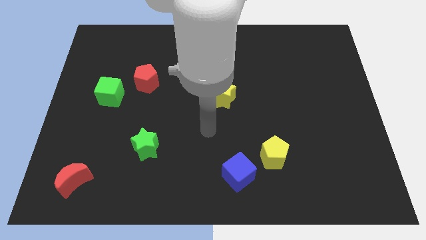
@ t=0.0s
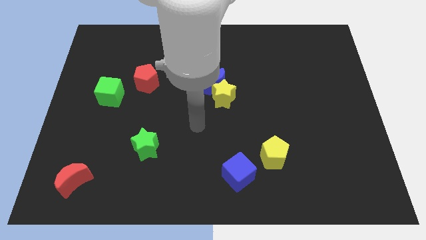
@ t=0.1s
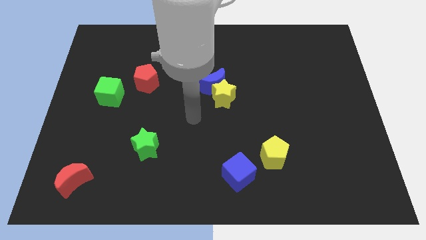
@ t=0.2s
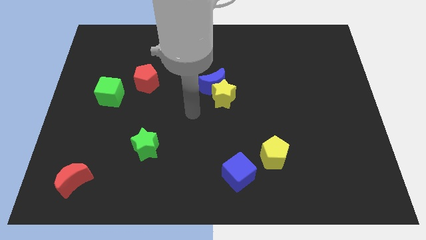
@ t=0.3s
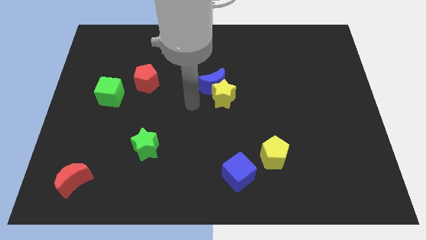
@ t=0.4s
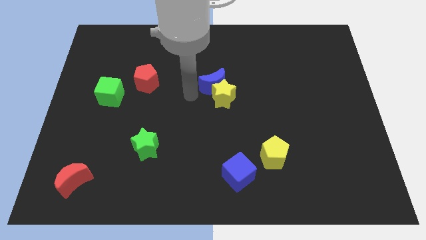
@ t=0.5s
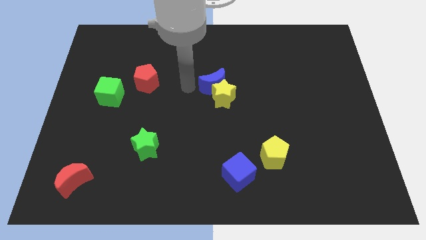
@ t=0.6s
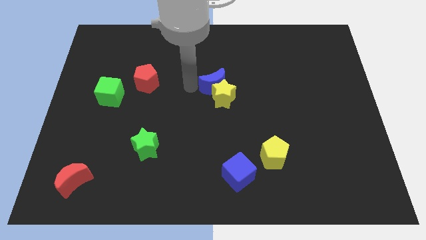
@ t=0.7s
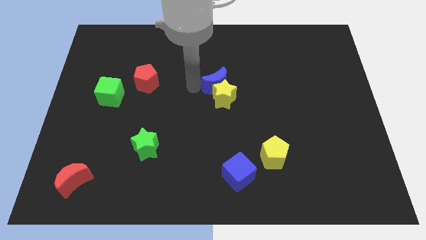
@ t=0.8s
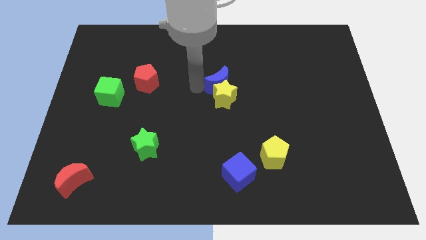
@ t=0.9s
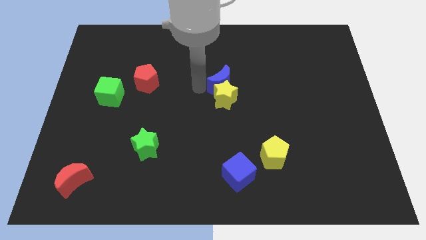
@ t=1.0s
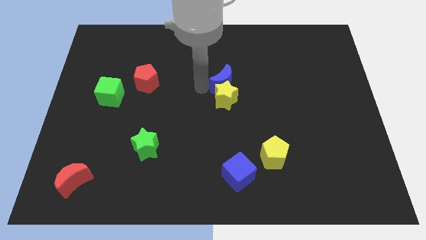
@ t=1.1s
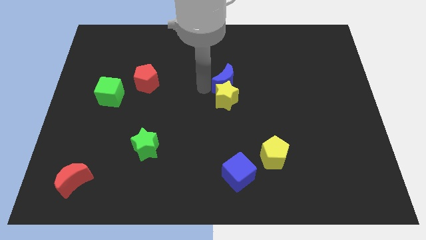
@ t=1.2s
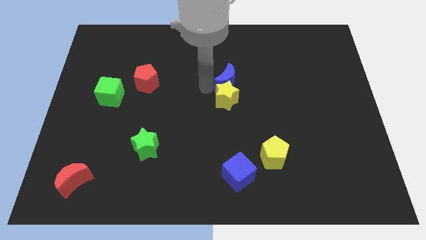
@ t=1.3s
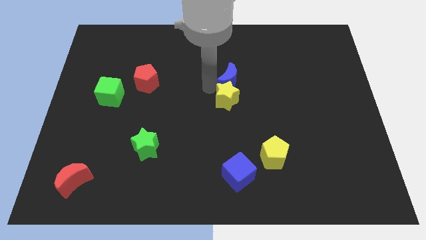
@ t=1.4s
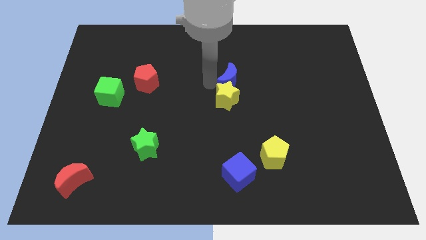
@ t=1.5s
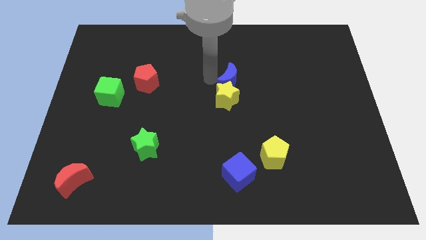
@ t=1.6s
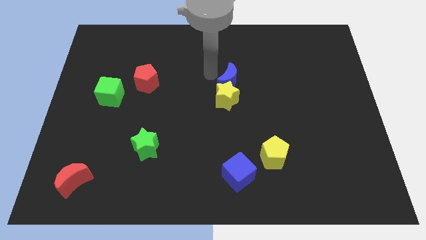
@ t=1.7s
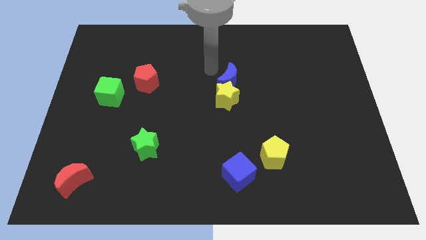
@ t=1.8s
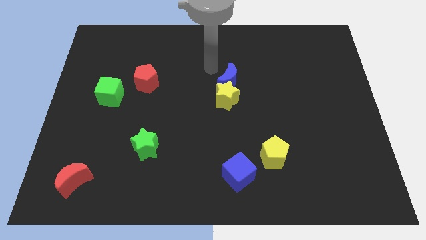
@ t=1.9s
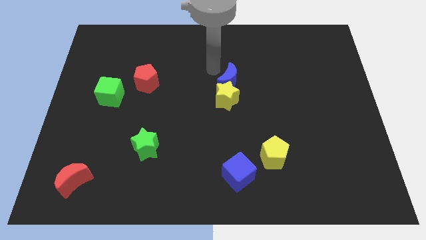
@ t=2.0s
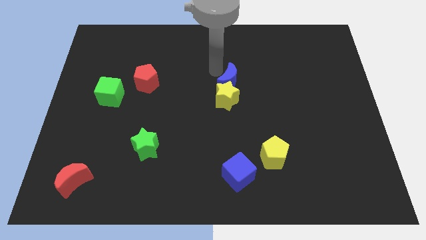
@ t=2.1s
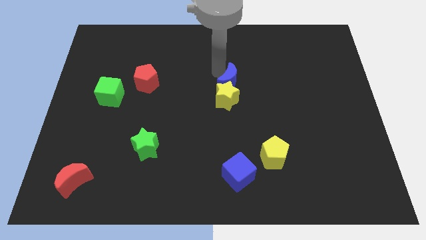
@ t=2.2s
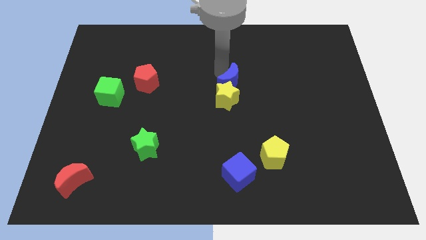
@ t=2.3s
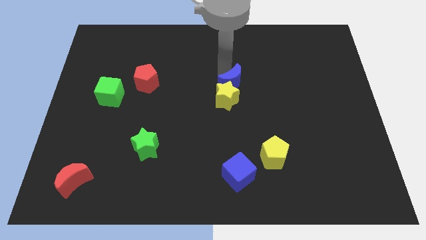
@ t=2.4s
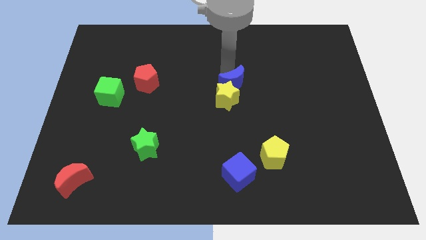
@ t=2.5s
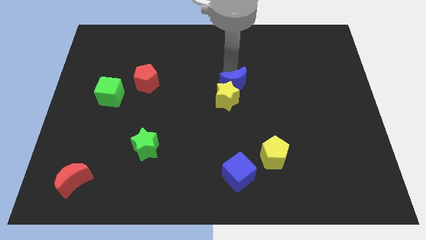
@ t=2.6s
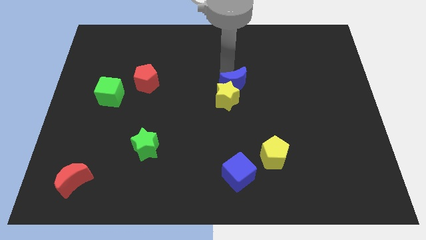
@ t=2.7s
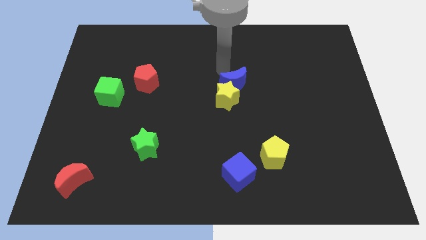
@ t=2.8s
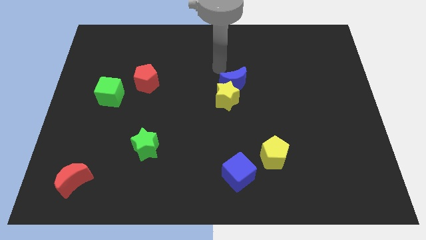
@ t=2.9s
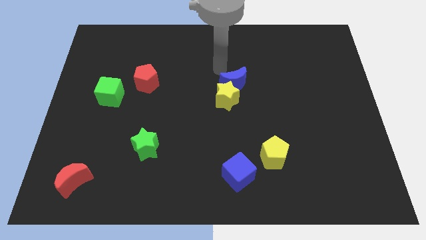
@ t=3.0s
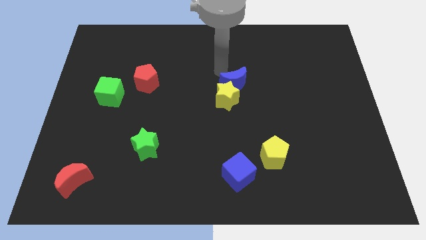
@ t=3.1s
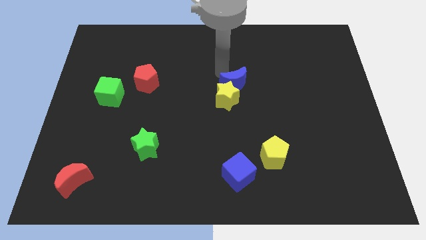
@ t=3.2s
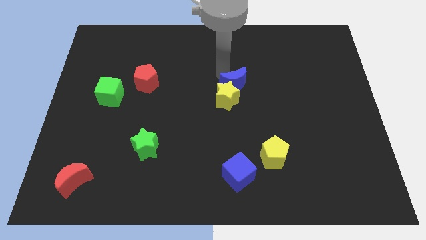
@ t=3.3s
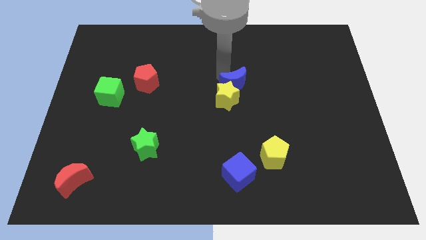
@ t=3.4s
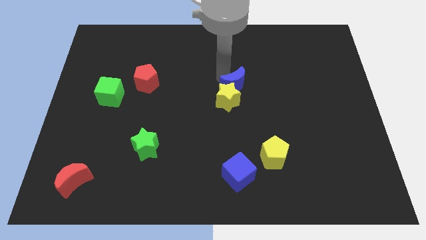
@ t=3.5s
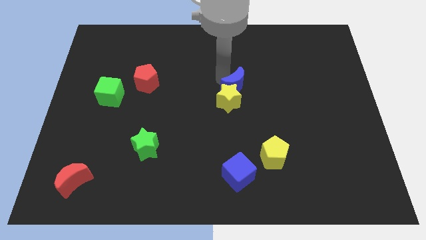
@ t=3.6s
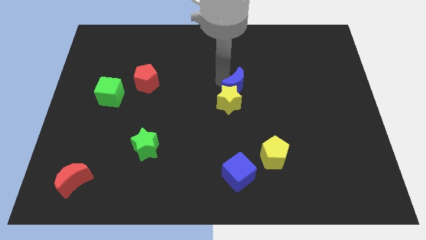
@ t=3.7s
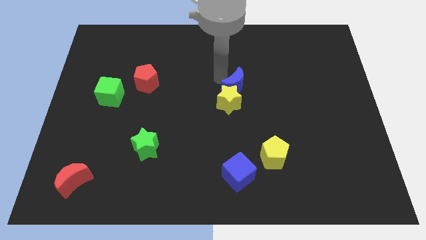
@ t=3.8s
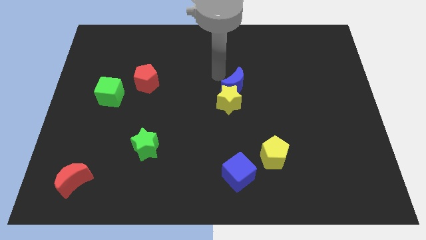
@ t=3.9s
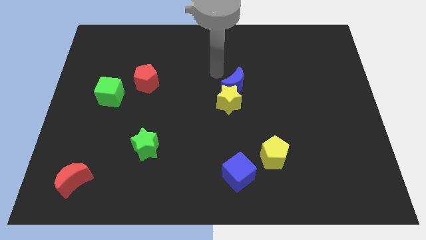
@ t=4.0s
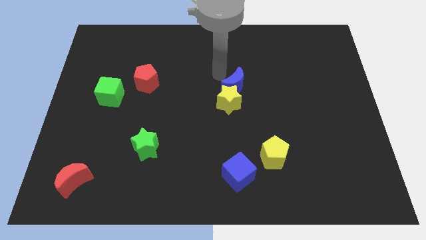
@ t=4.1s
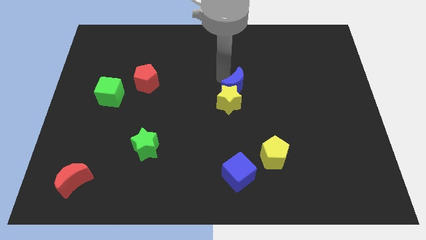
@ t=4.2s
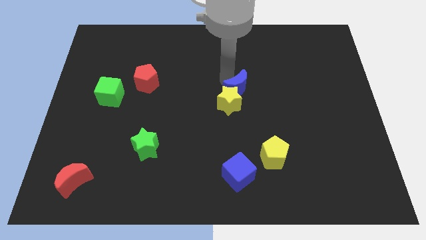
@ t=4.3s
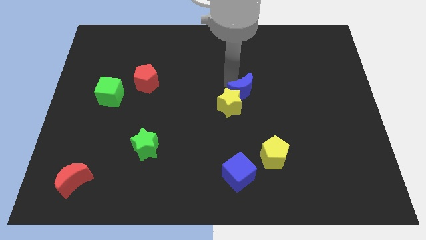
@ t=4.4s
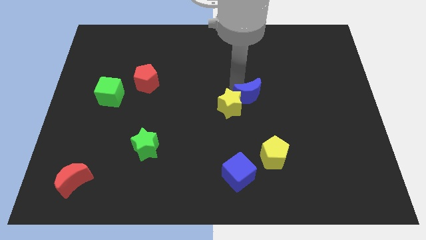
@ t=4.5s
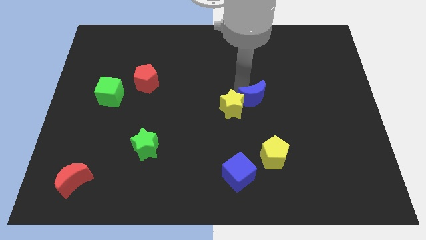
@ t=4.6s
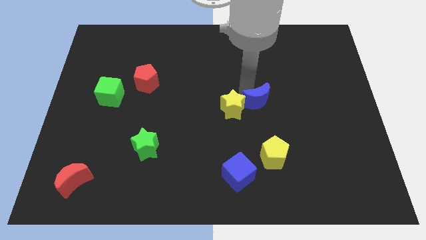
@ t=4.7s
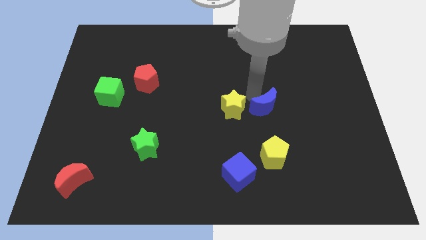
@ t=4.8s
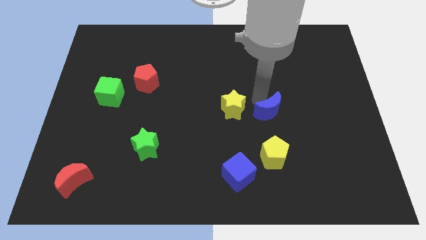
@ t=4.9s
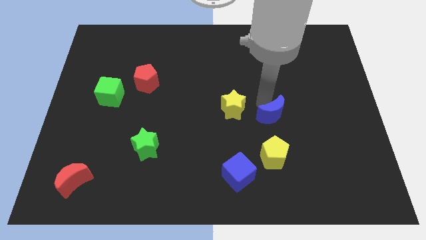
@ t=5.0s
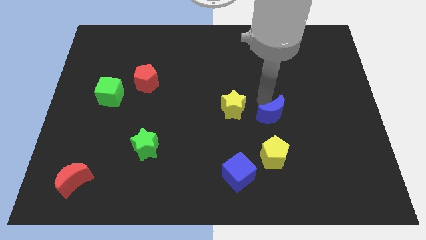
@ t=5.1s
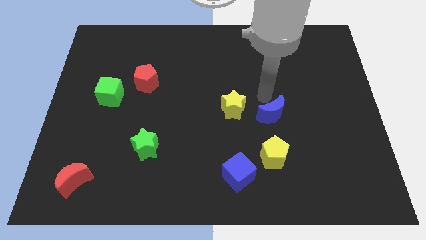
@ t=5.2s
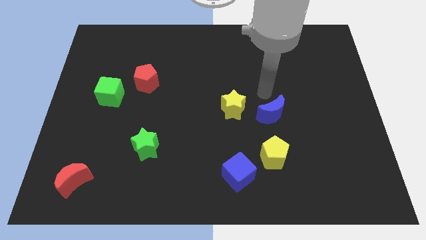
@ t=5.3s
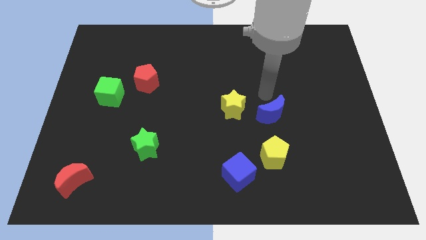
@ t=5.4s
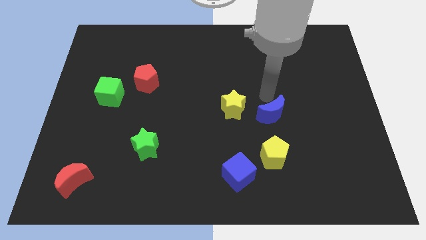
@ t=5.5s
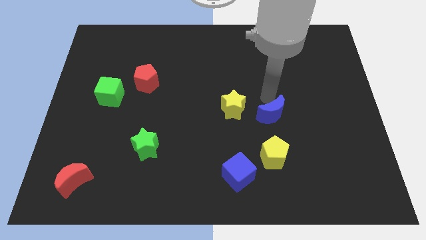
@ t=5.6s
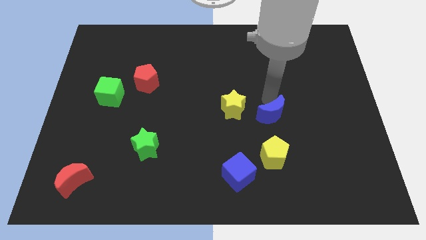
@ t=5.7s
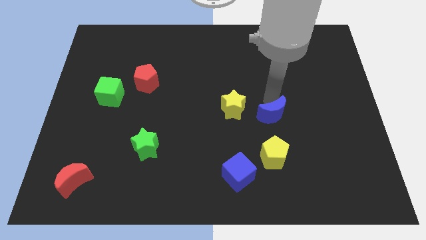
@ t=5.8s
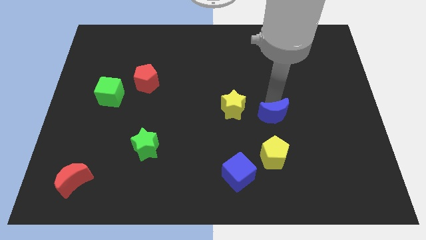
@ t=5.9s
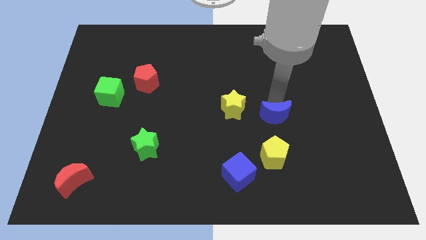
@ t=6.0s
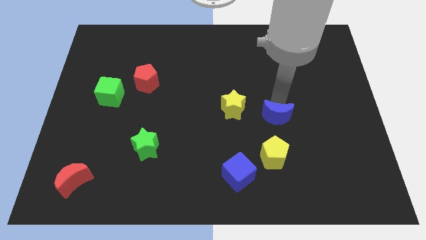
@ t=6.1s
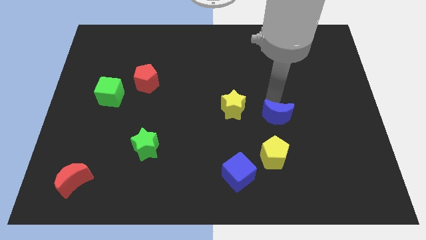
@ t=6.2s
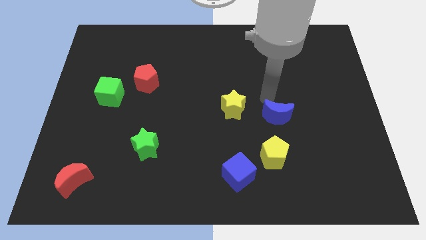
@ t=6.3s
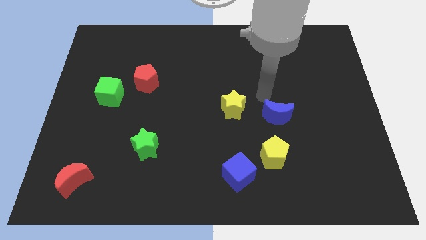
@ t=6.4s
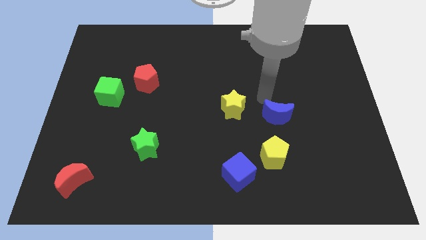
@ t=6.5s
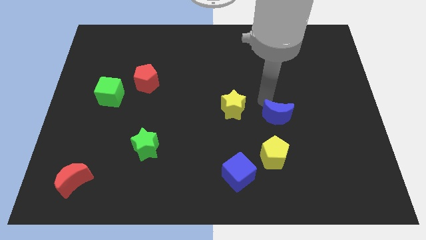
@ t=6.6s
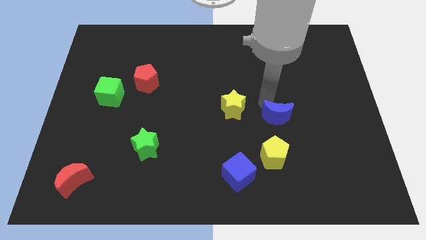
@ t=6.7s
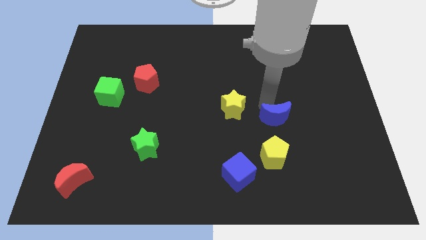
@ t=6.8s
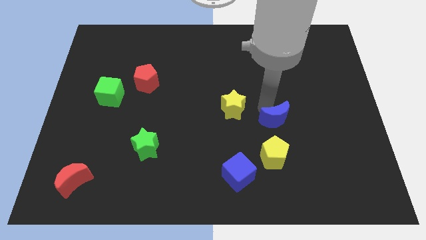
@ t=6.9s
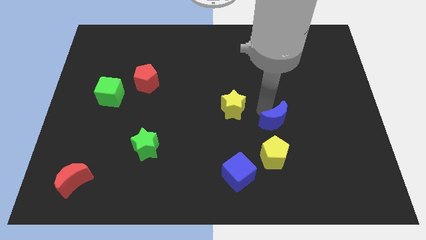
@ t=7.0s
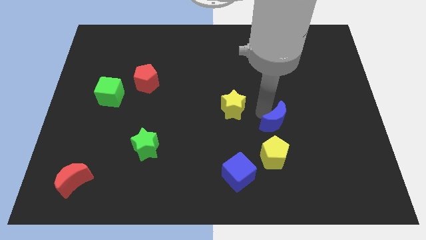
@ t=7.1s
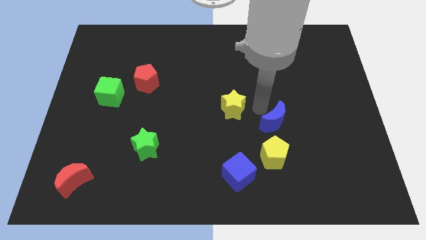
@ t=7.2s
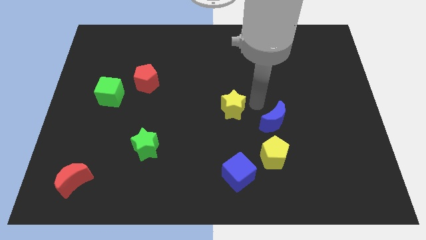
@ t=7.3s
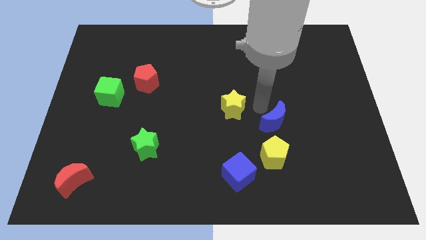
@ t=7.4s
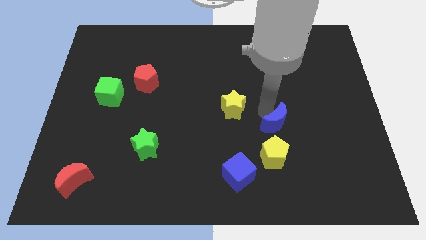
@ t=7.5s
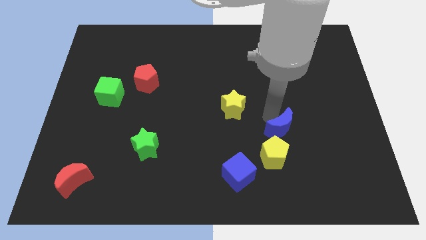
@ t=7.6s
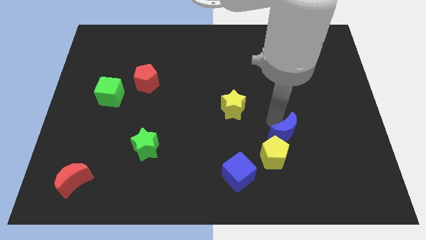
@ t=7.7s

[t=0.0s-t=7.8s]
push the blue moon diagonally downwards and to the right
